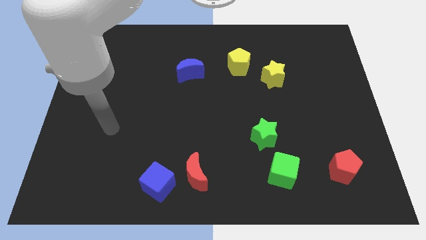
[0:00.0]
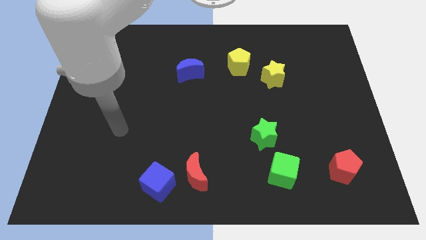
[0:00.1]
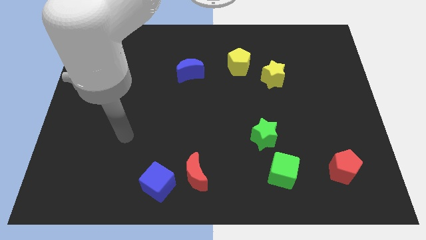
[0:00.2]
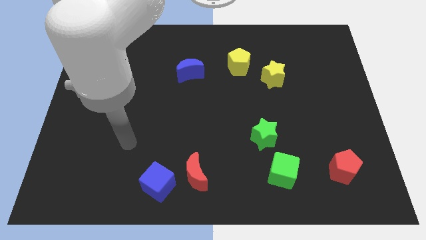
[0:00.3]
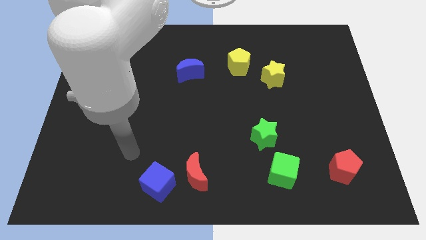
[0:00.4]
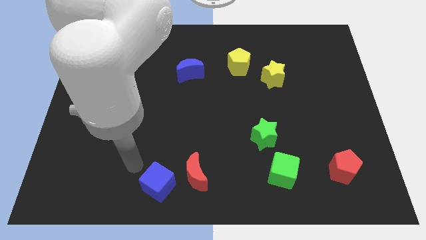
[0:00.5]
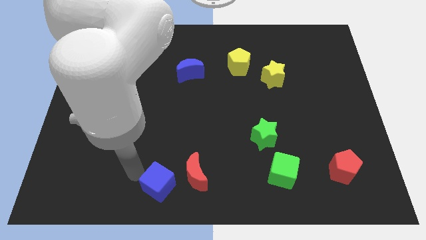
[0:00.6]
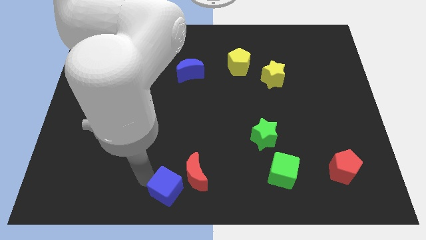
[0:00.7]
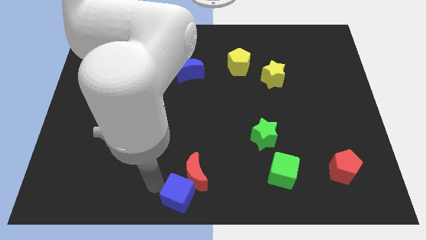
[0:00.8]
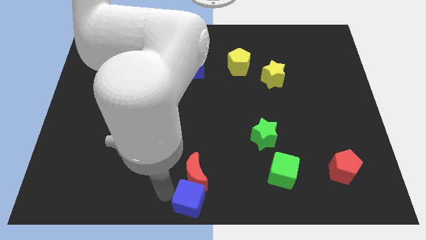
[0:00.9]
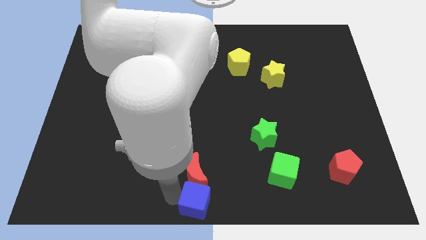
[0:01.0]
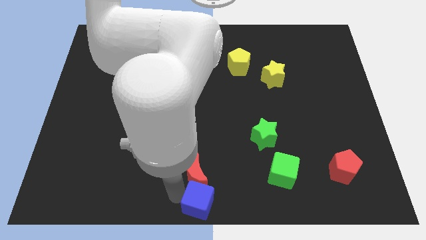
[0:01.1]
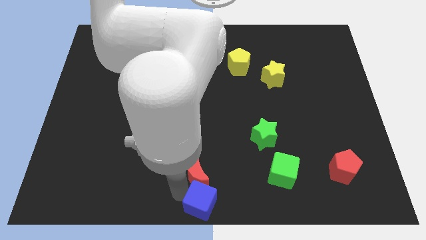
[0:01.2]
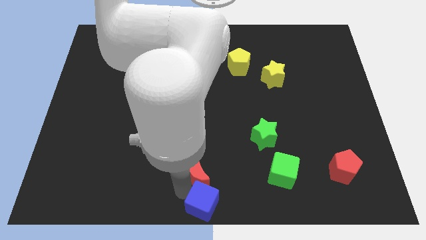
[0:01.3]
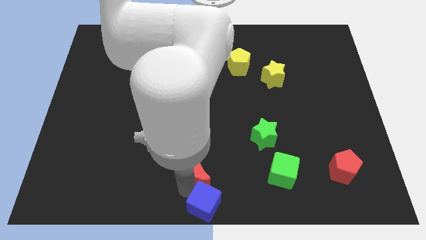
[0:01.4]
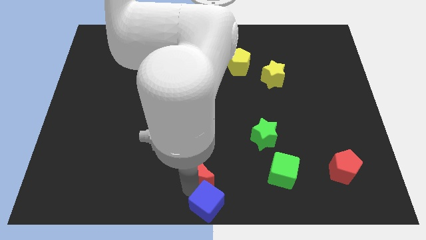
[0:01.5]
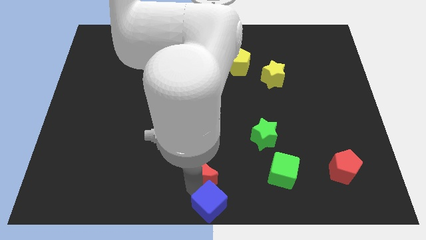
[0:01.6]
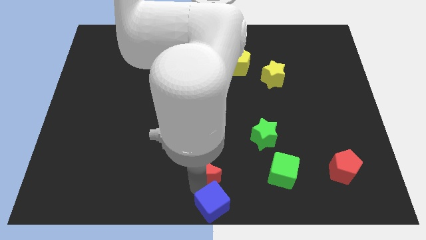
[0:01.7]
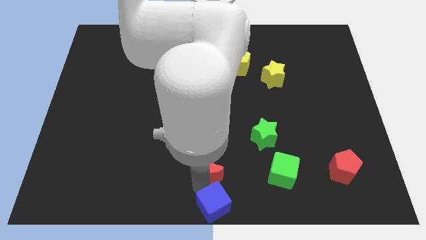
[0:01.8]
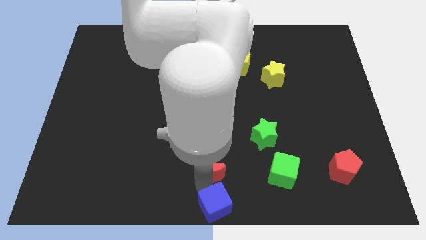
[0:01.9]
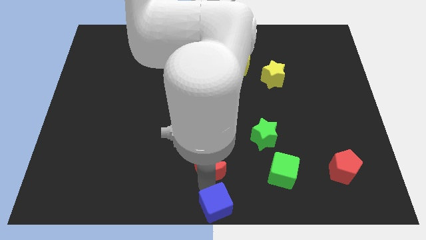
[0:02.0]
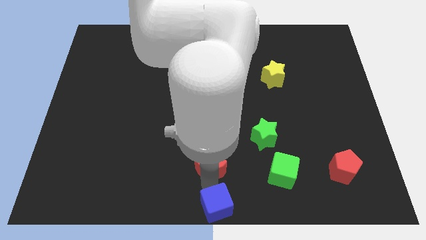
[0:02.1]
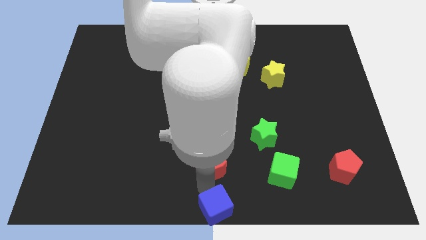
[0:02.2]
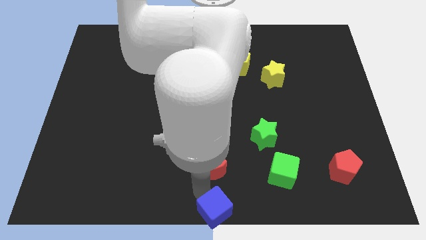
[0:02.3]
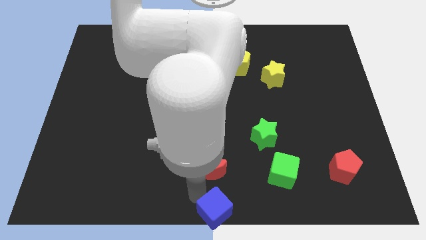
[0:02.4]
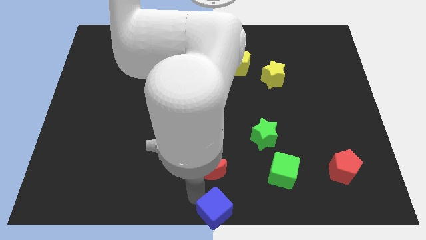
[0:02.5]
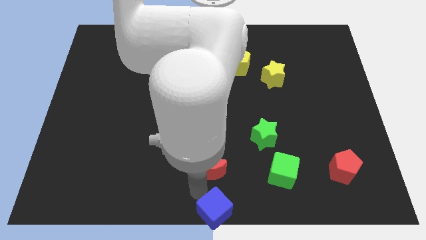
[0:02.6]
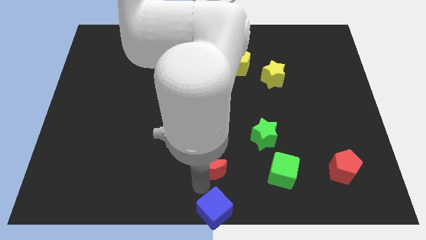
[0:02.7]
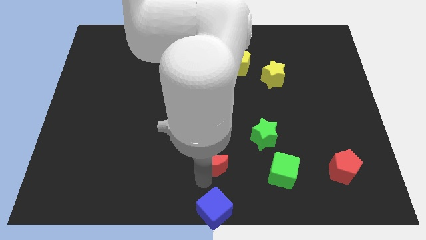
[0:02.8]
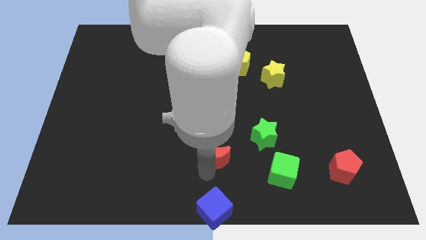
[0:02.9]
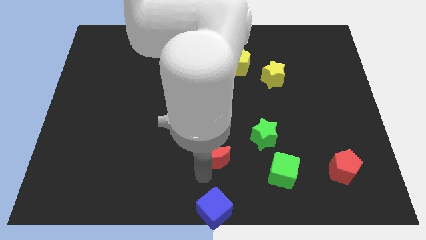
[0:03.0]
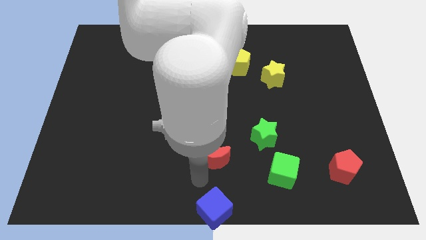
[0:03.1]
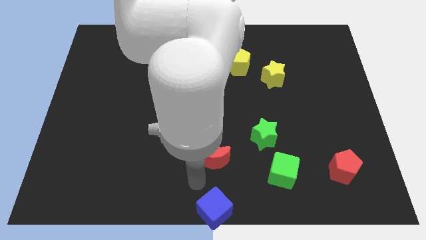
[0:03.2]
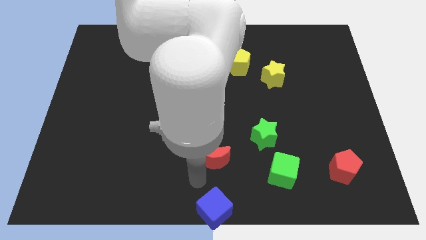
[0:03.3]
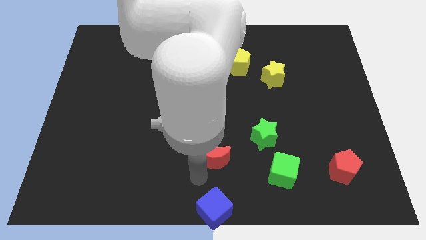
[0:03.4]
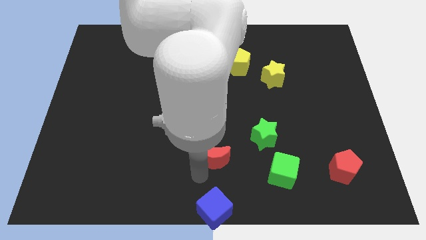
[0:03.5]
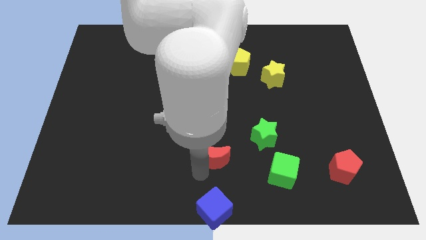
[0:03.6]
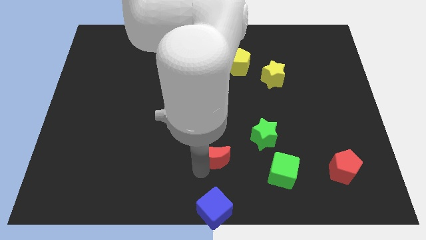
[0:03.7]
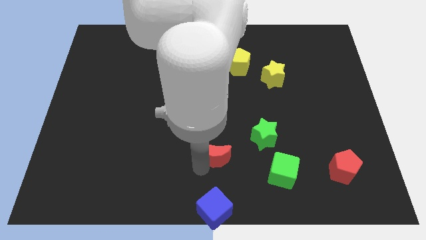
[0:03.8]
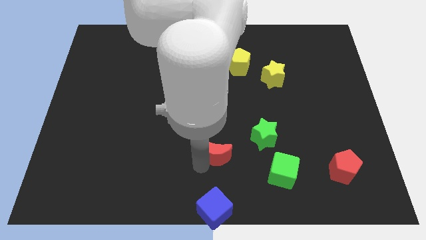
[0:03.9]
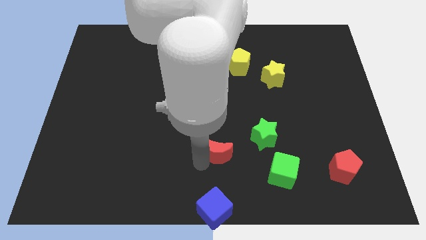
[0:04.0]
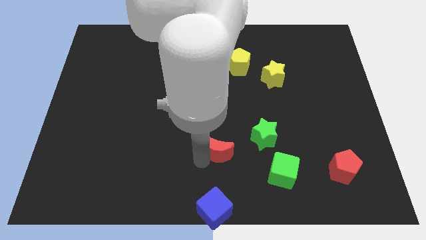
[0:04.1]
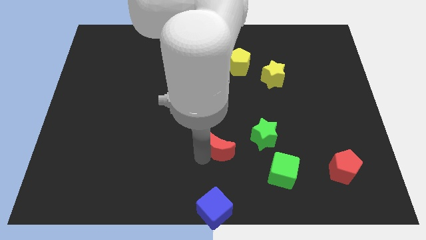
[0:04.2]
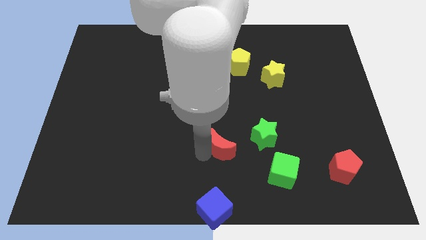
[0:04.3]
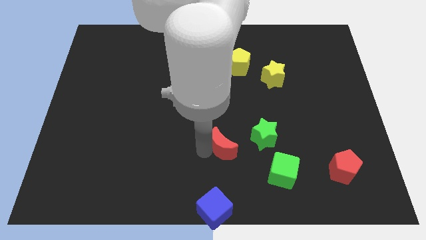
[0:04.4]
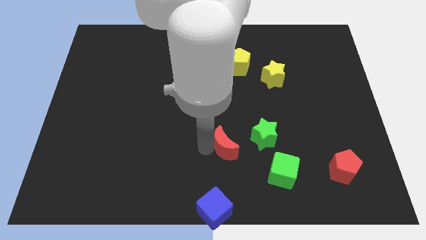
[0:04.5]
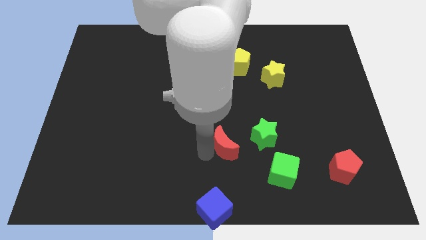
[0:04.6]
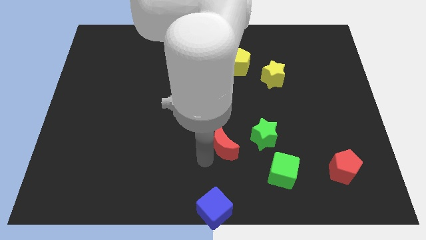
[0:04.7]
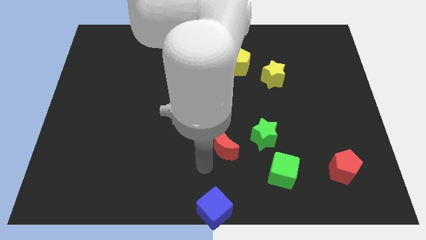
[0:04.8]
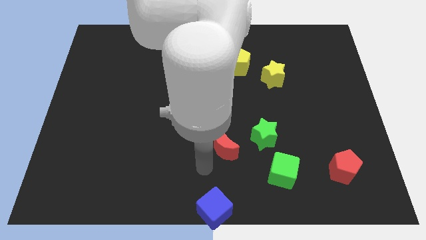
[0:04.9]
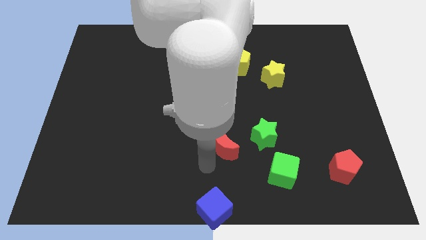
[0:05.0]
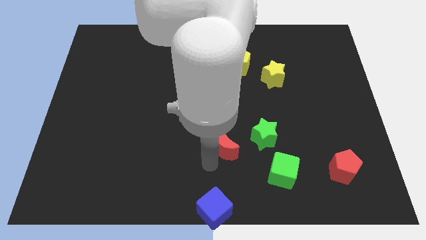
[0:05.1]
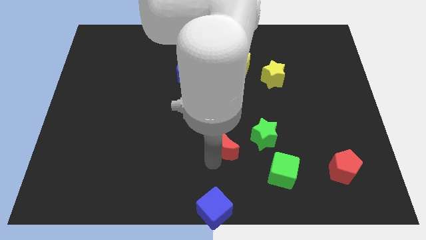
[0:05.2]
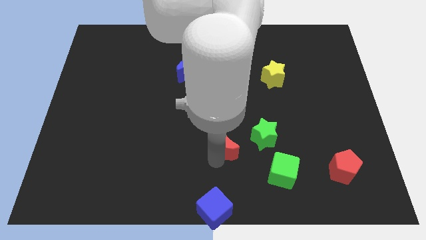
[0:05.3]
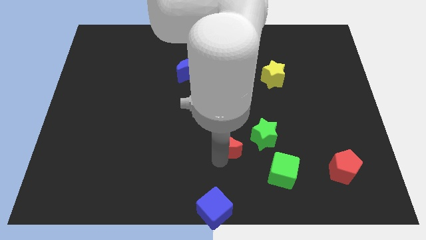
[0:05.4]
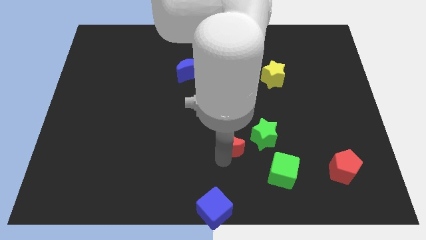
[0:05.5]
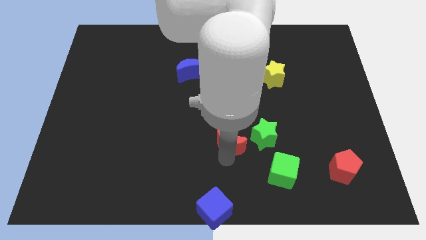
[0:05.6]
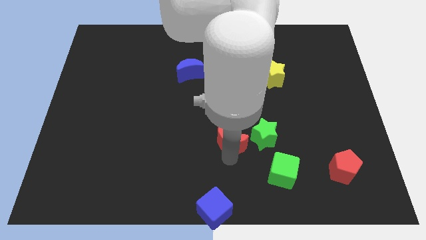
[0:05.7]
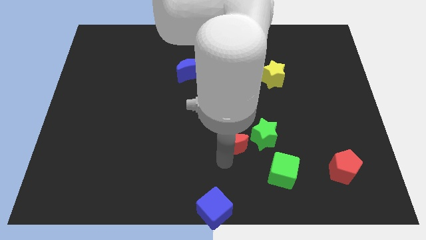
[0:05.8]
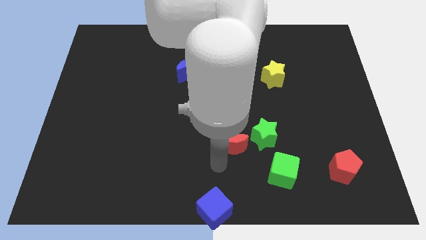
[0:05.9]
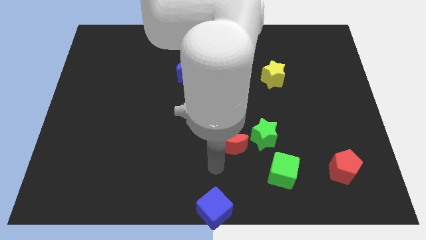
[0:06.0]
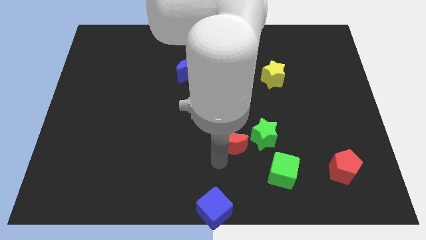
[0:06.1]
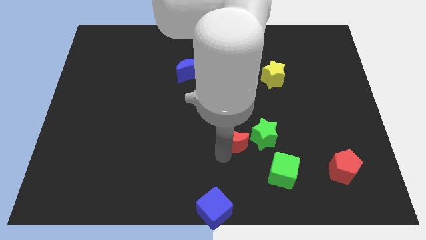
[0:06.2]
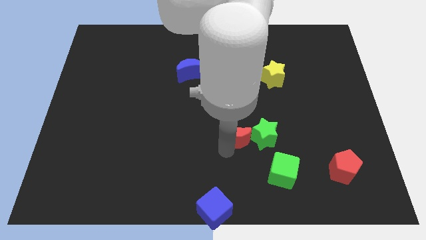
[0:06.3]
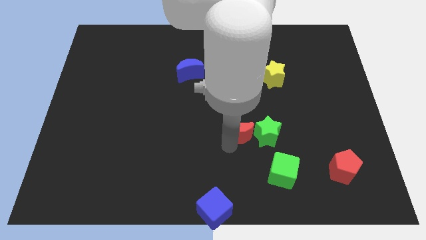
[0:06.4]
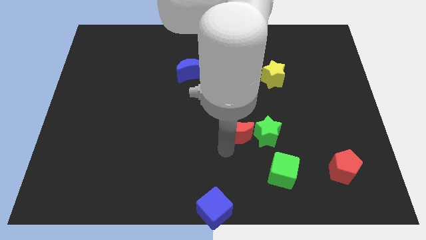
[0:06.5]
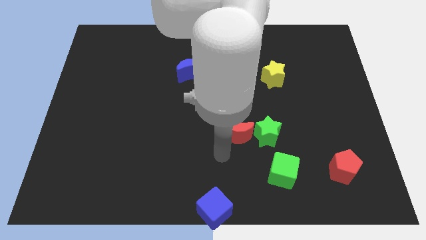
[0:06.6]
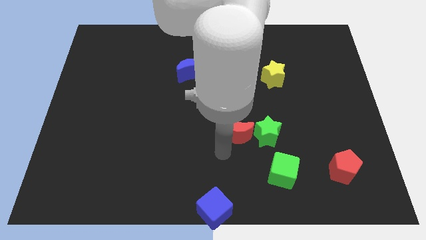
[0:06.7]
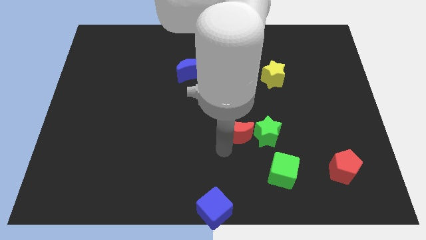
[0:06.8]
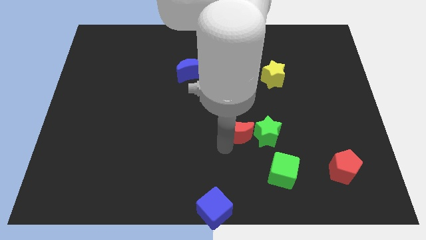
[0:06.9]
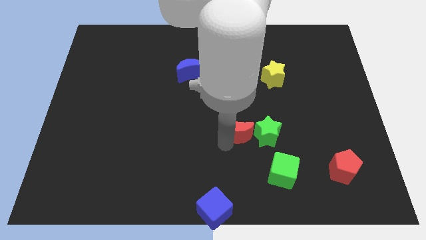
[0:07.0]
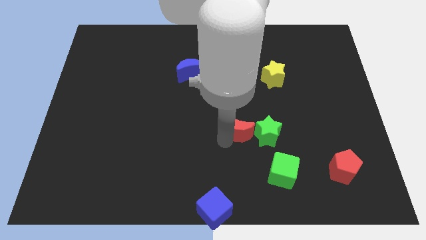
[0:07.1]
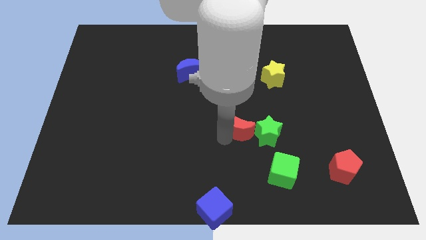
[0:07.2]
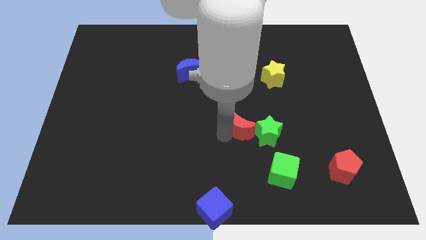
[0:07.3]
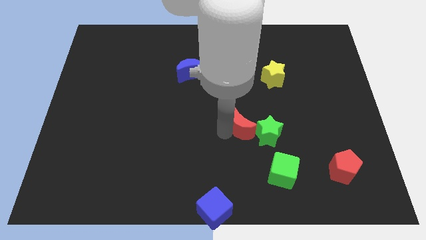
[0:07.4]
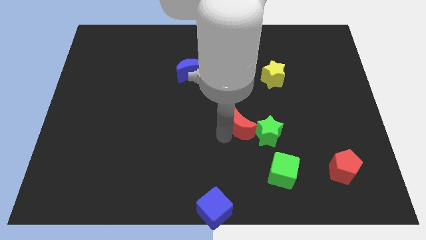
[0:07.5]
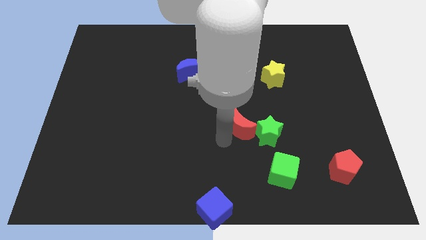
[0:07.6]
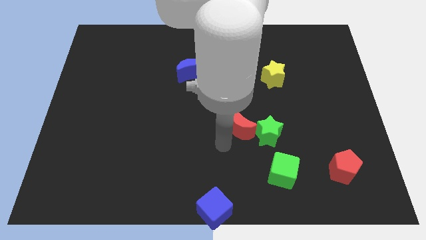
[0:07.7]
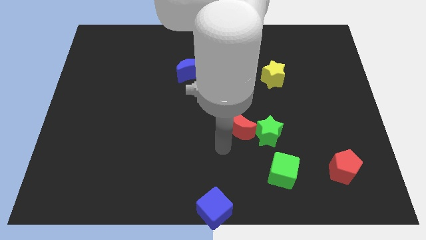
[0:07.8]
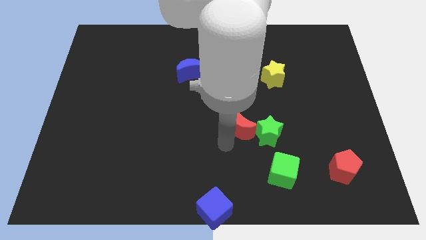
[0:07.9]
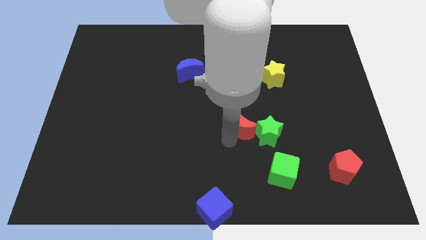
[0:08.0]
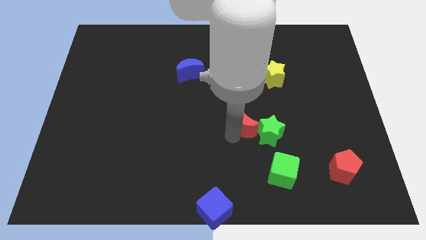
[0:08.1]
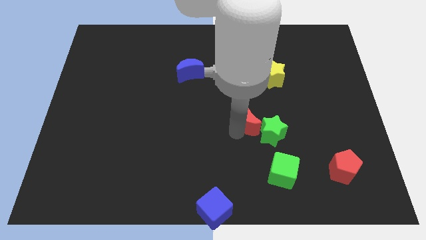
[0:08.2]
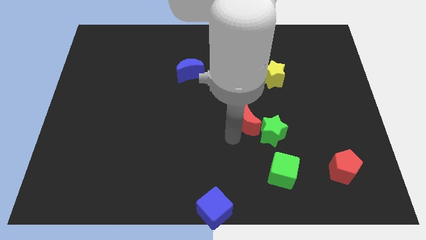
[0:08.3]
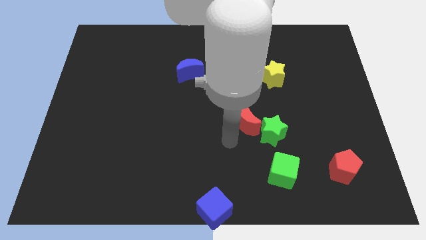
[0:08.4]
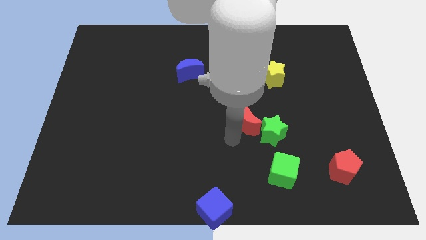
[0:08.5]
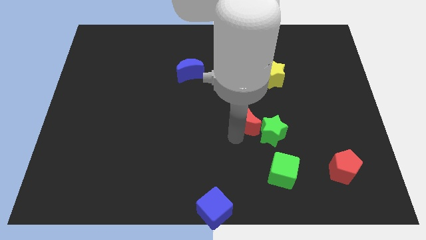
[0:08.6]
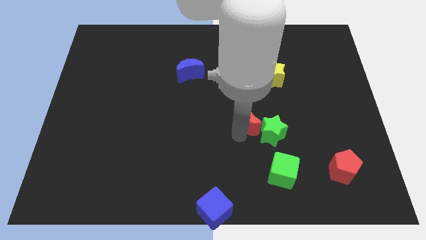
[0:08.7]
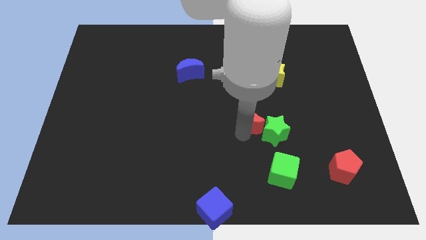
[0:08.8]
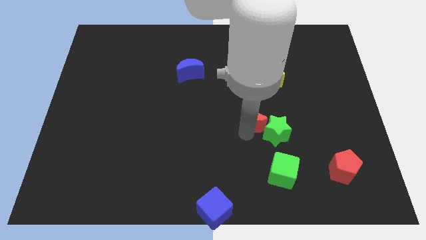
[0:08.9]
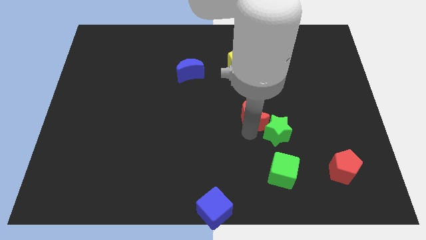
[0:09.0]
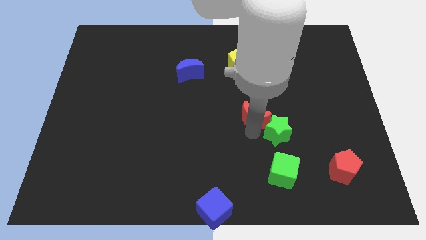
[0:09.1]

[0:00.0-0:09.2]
move the red moon to the top side of the green star
